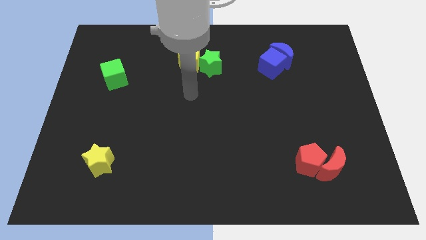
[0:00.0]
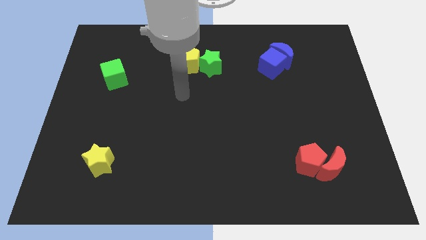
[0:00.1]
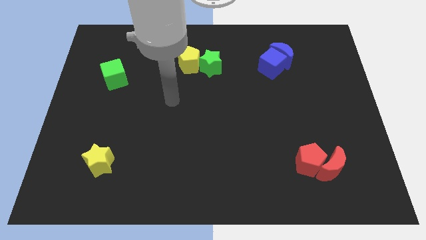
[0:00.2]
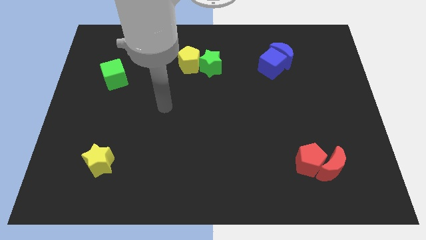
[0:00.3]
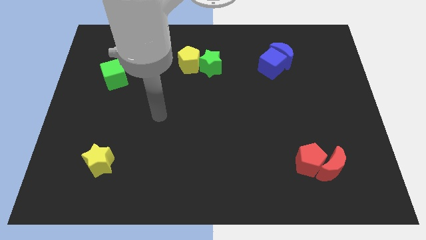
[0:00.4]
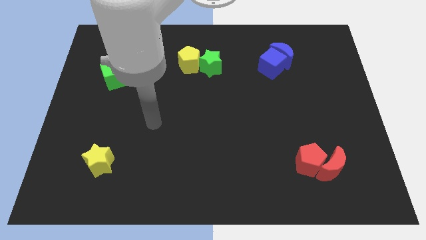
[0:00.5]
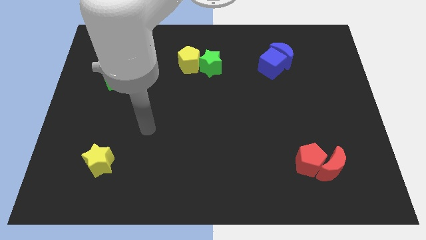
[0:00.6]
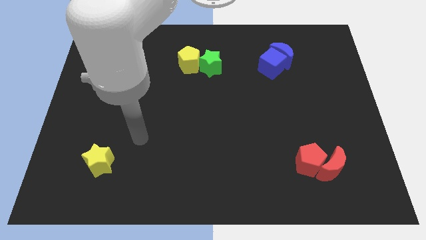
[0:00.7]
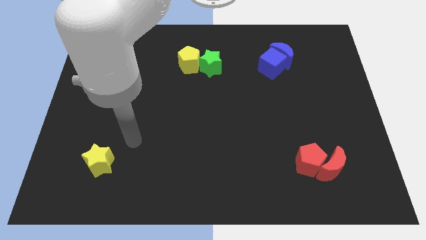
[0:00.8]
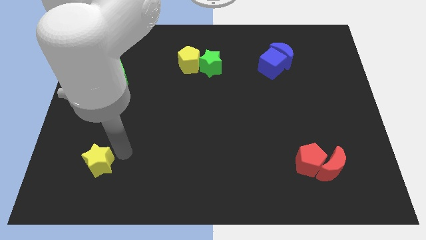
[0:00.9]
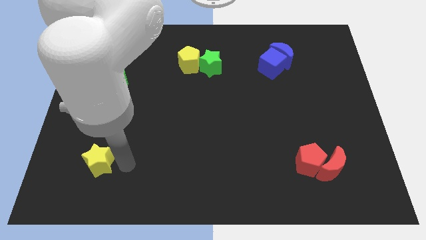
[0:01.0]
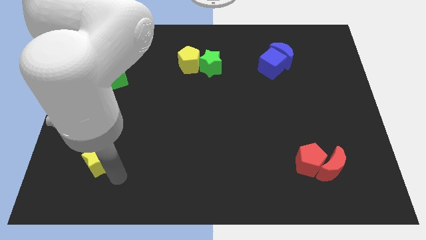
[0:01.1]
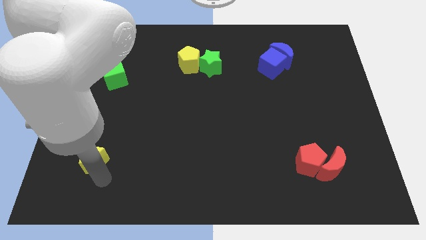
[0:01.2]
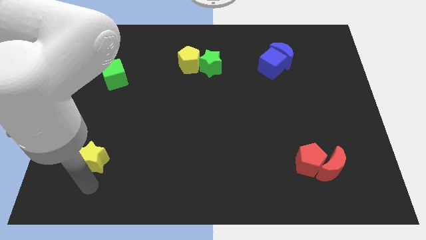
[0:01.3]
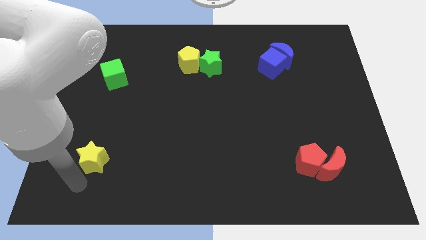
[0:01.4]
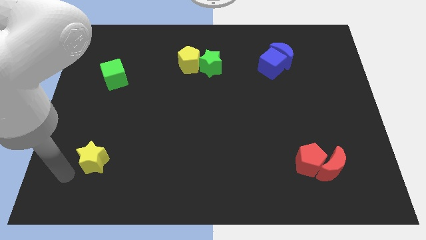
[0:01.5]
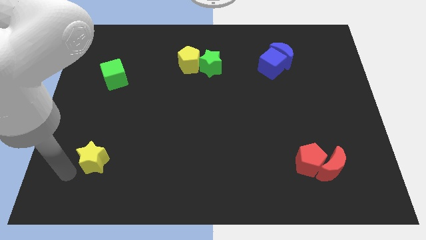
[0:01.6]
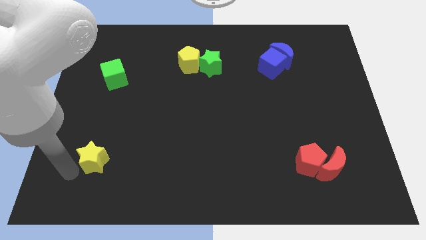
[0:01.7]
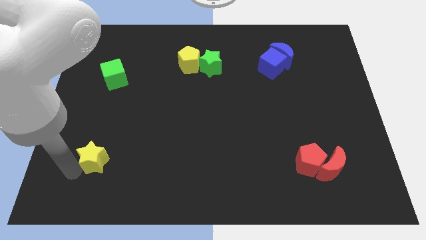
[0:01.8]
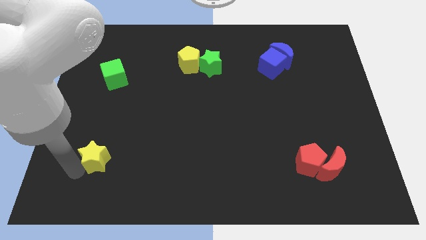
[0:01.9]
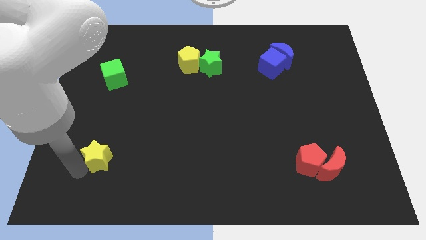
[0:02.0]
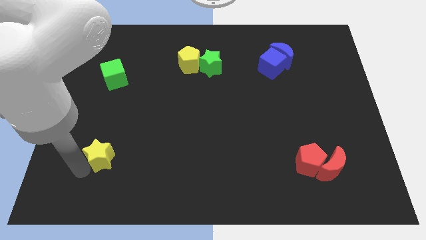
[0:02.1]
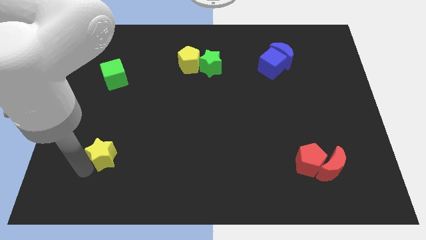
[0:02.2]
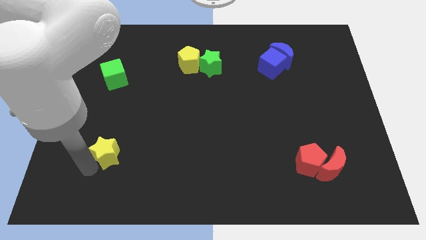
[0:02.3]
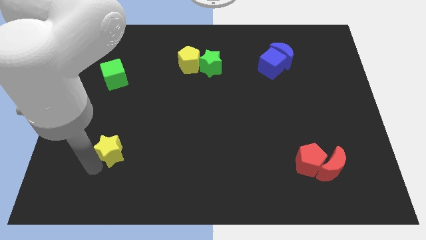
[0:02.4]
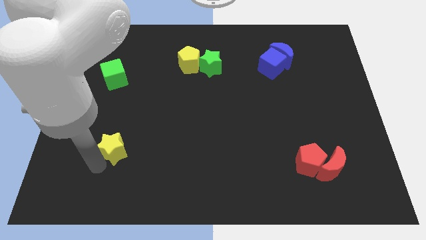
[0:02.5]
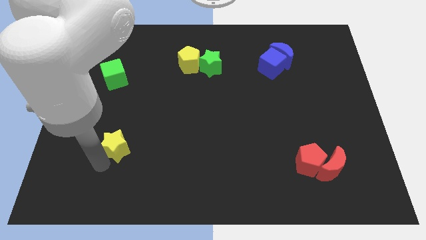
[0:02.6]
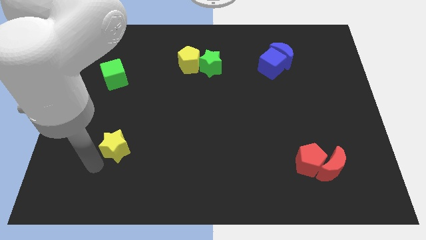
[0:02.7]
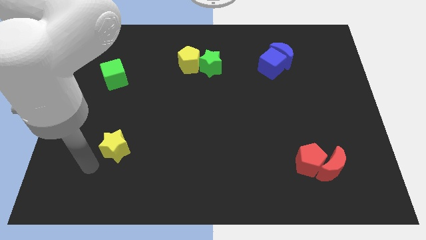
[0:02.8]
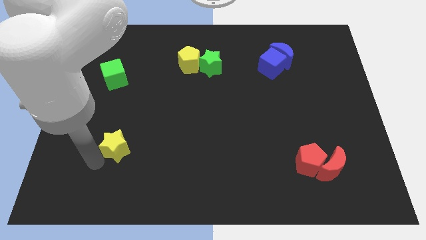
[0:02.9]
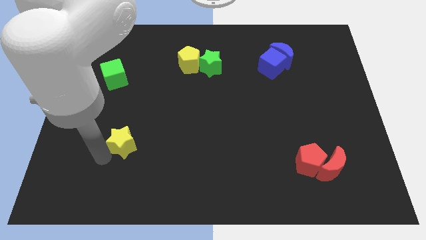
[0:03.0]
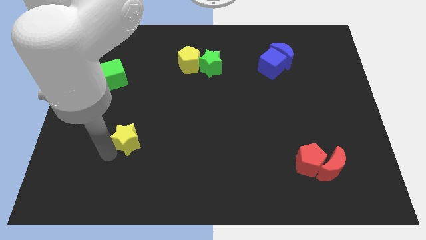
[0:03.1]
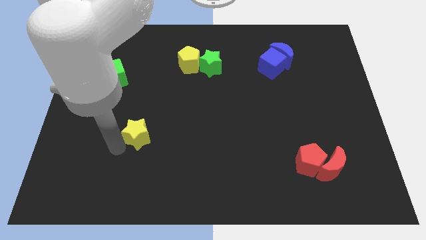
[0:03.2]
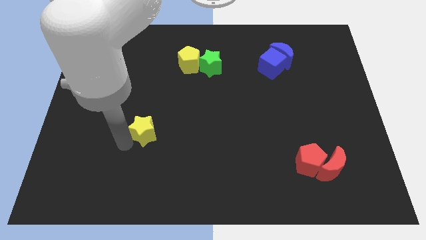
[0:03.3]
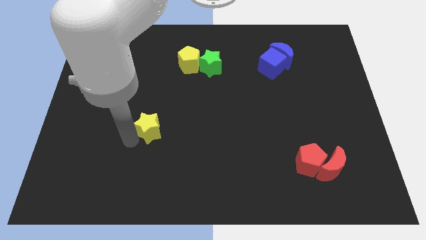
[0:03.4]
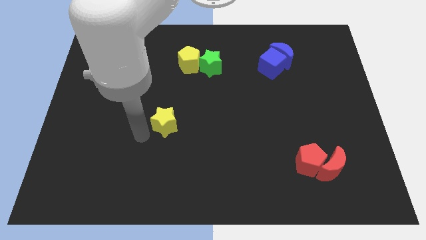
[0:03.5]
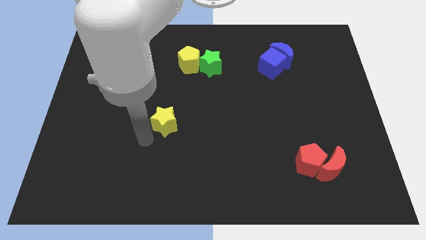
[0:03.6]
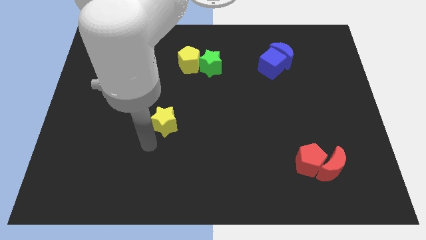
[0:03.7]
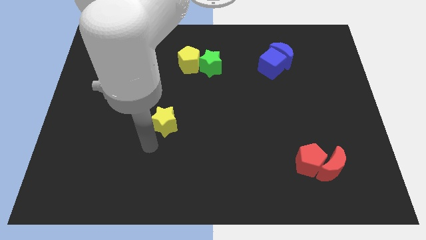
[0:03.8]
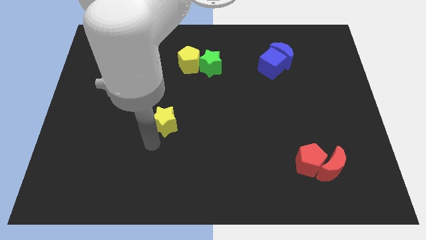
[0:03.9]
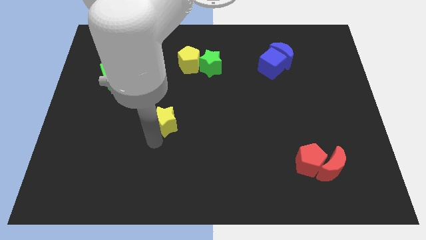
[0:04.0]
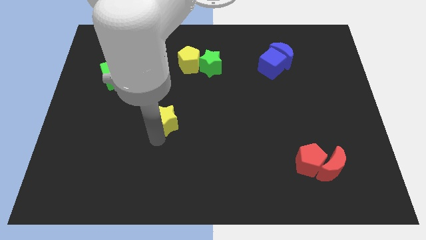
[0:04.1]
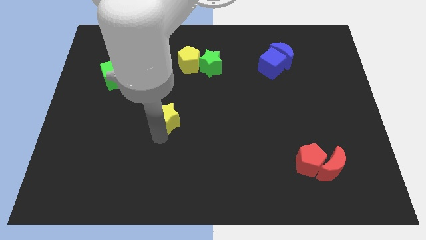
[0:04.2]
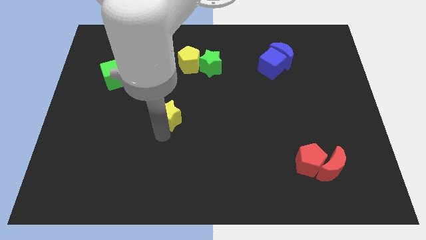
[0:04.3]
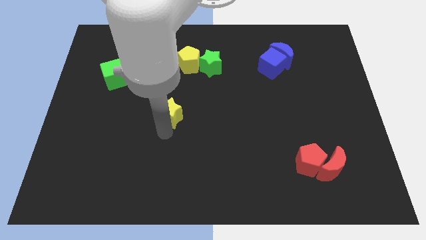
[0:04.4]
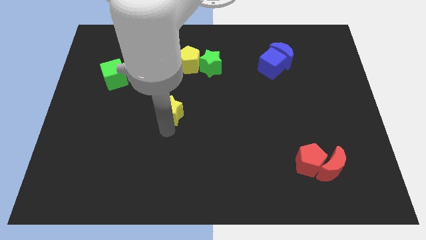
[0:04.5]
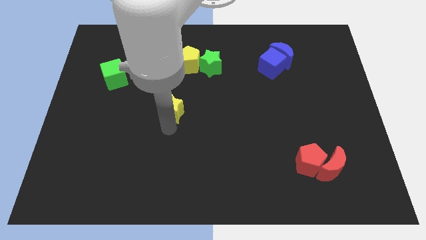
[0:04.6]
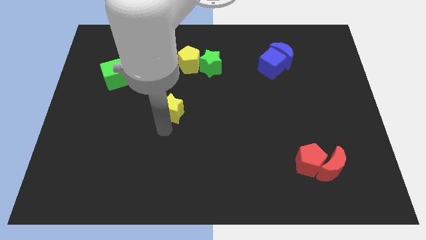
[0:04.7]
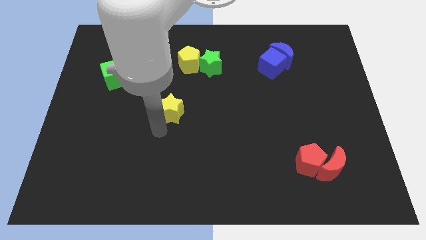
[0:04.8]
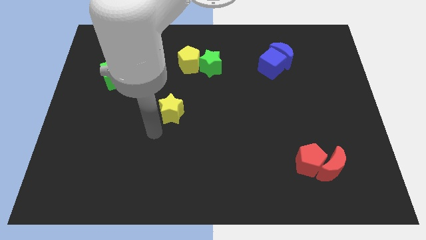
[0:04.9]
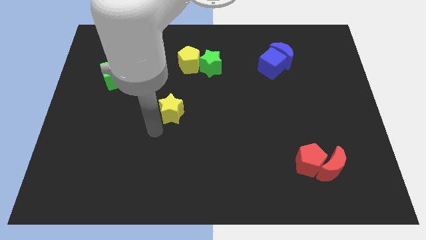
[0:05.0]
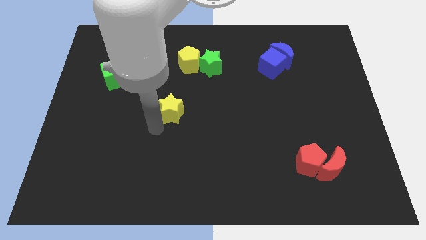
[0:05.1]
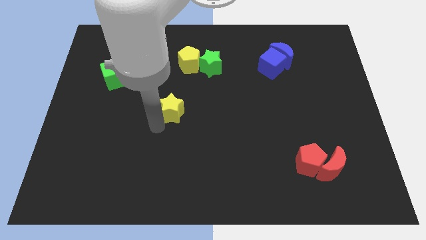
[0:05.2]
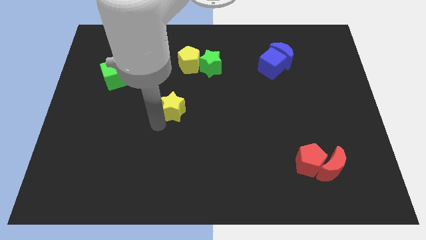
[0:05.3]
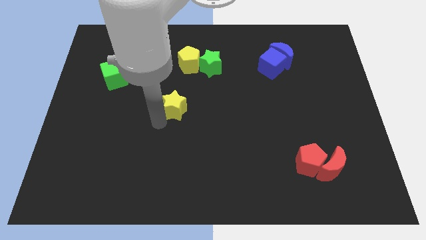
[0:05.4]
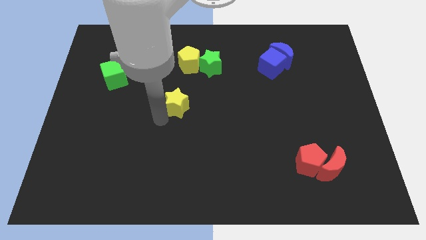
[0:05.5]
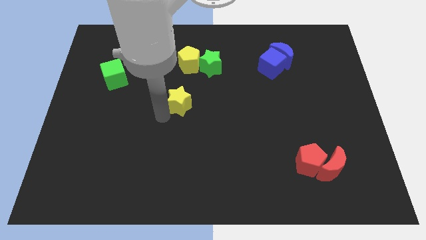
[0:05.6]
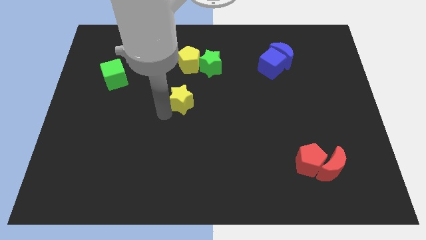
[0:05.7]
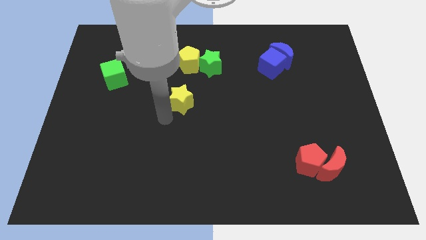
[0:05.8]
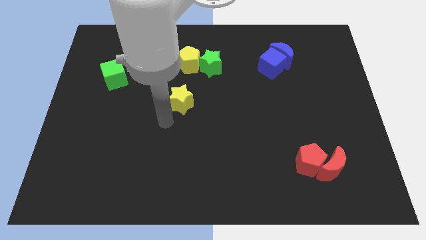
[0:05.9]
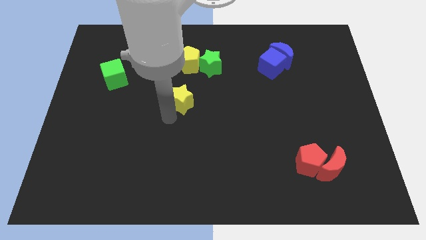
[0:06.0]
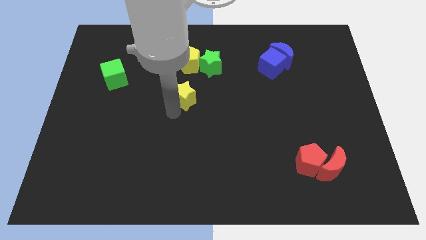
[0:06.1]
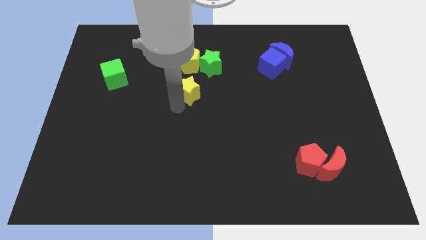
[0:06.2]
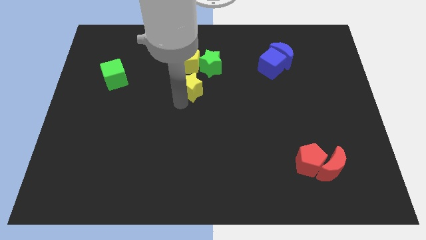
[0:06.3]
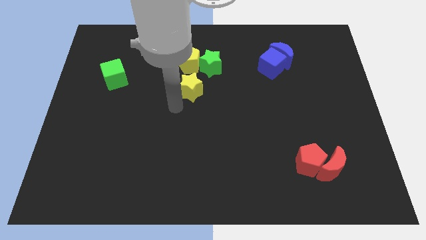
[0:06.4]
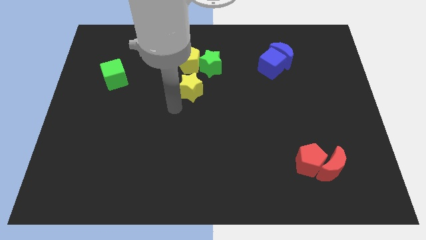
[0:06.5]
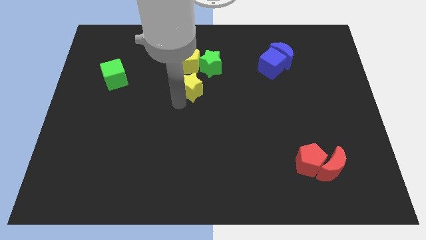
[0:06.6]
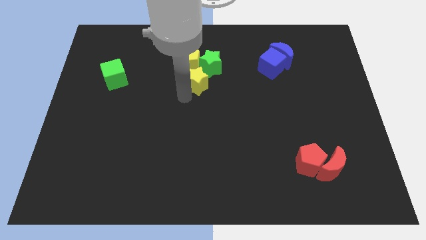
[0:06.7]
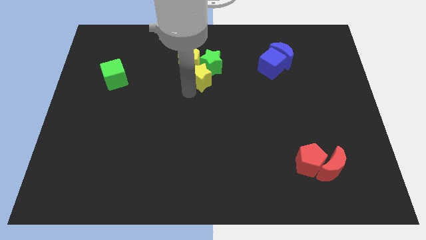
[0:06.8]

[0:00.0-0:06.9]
push the yellow star next to the green star
